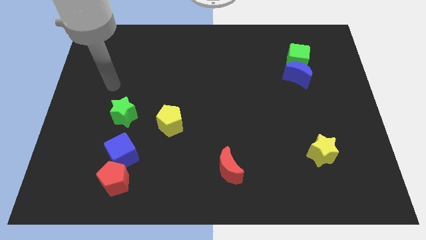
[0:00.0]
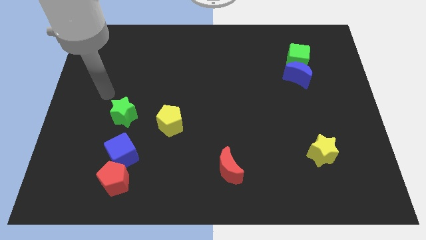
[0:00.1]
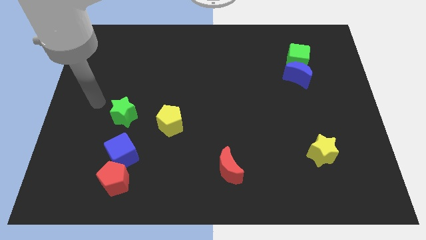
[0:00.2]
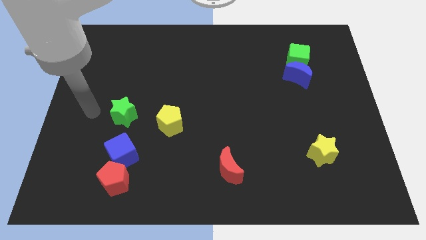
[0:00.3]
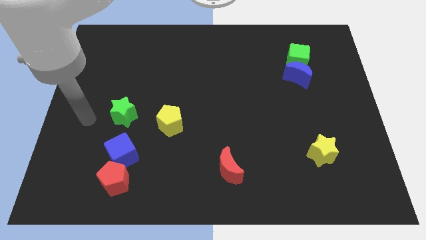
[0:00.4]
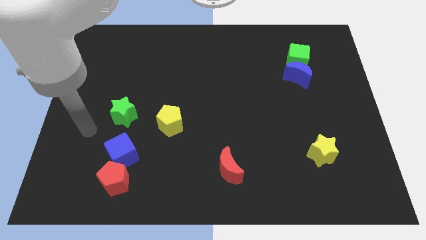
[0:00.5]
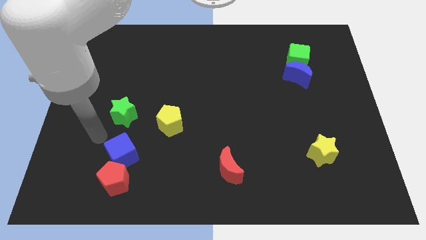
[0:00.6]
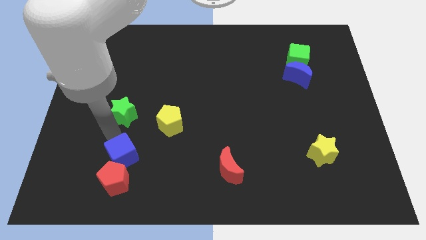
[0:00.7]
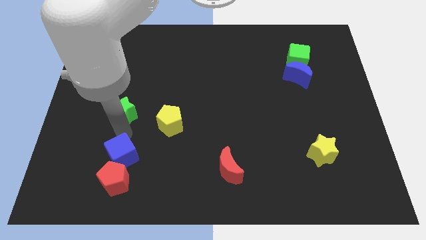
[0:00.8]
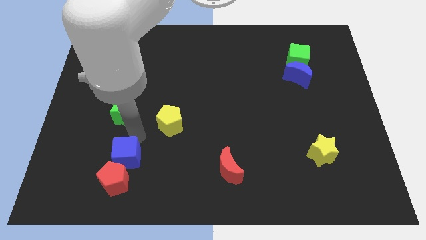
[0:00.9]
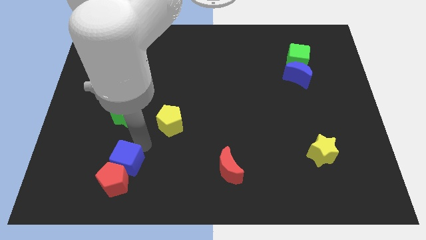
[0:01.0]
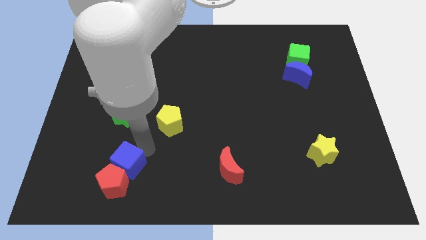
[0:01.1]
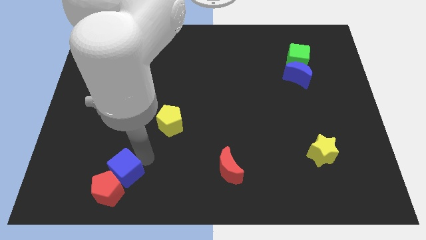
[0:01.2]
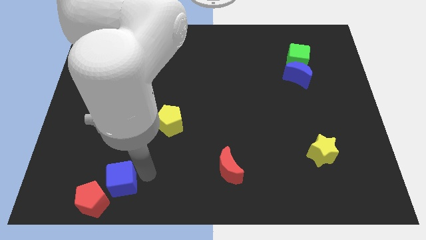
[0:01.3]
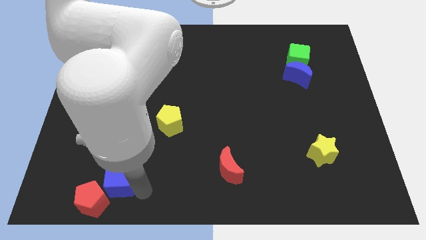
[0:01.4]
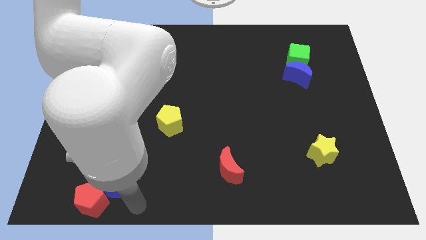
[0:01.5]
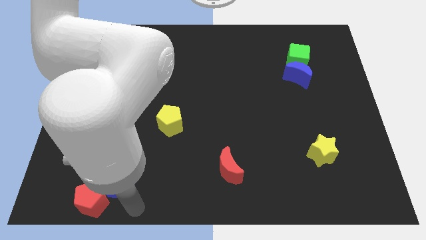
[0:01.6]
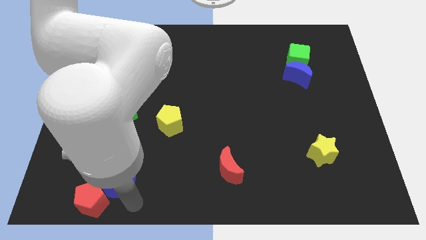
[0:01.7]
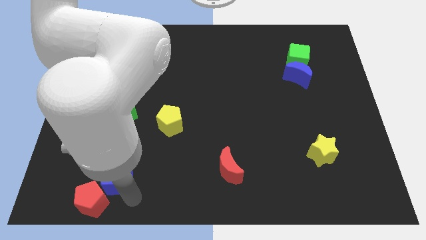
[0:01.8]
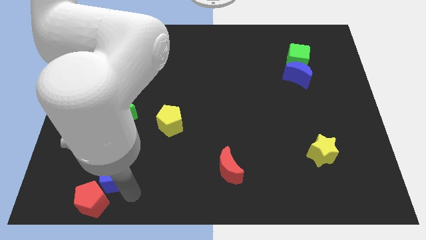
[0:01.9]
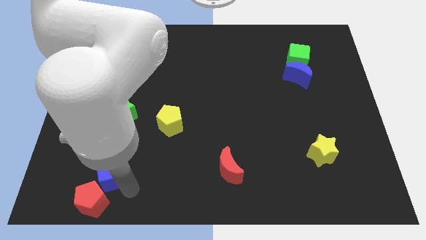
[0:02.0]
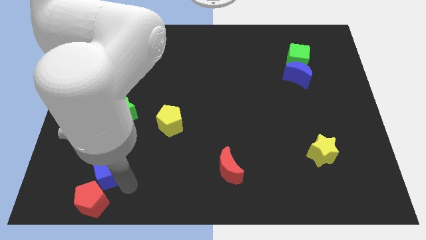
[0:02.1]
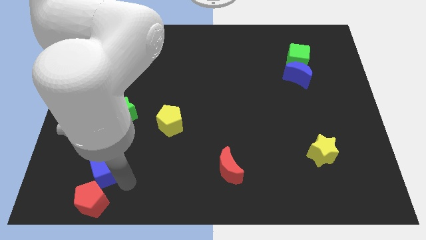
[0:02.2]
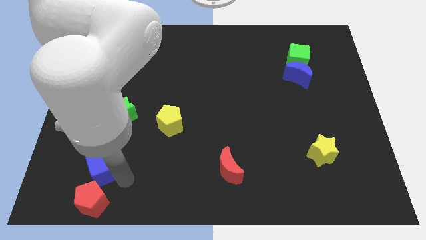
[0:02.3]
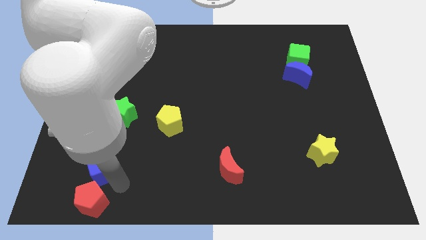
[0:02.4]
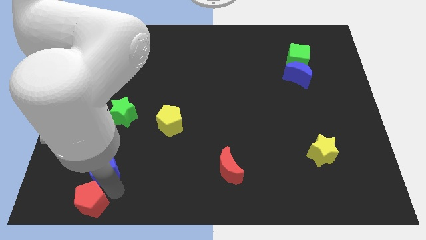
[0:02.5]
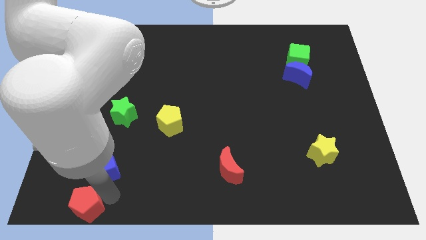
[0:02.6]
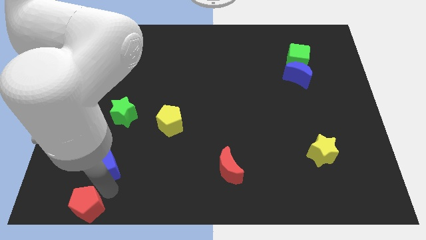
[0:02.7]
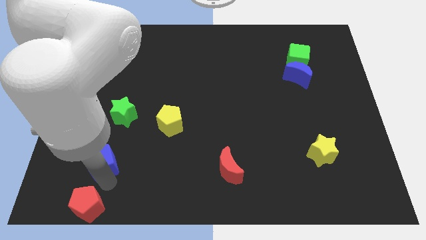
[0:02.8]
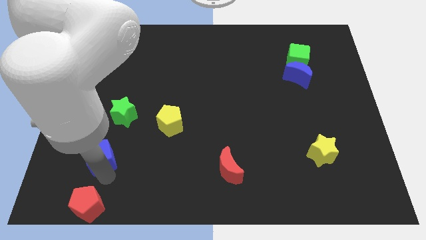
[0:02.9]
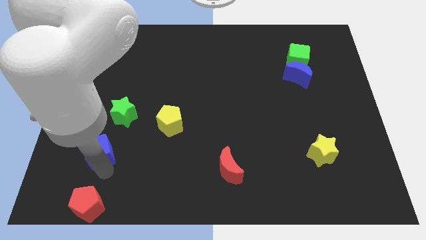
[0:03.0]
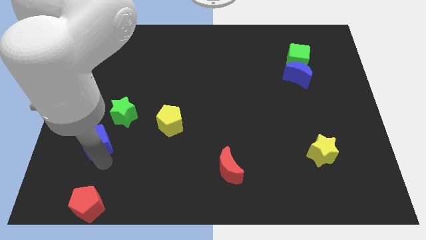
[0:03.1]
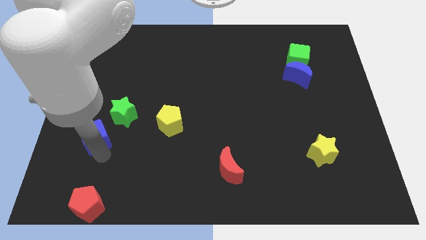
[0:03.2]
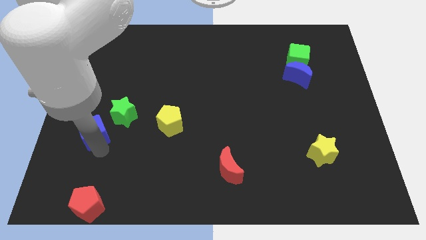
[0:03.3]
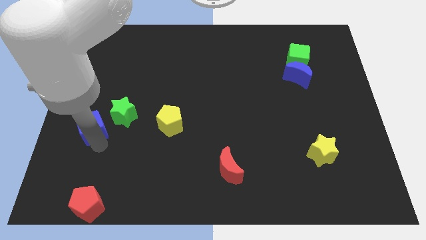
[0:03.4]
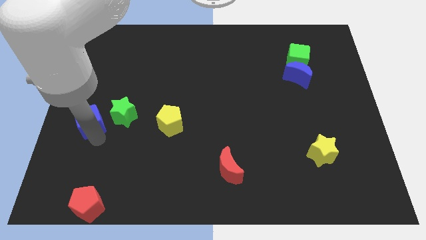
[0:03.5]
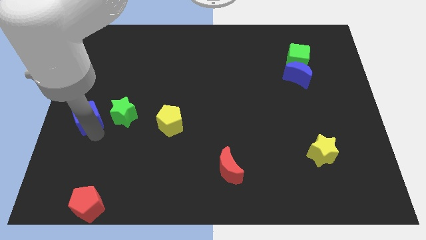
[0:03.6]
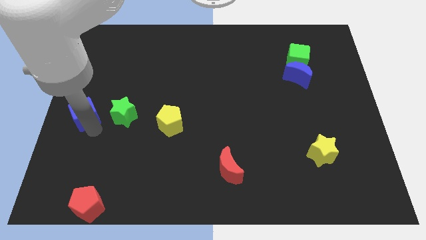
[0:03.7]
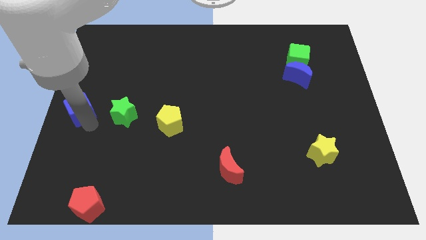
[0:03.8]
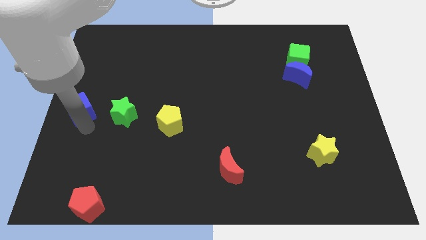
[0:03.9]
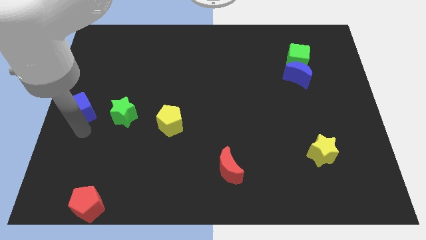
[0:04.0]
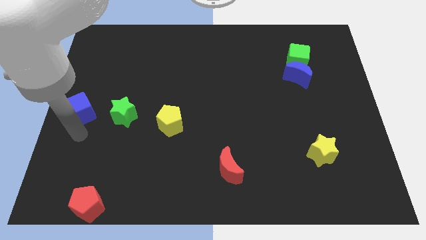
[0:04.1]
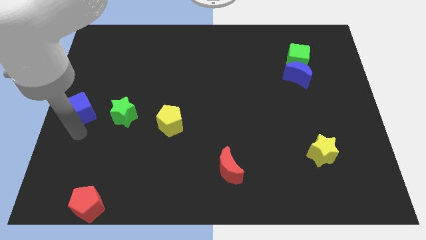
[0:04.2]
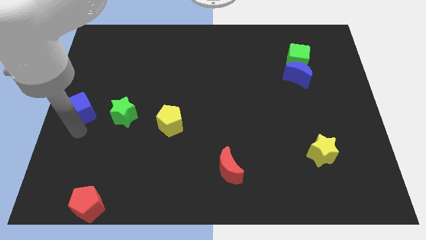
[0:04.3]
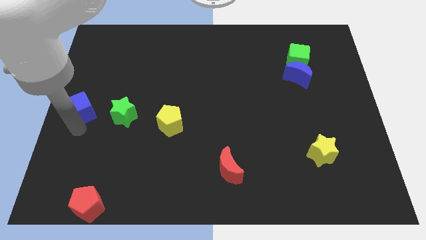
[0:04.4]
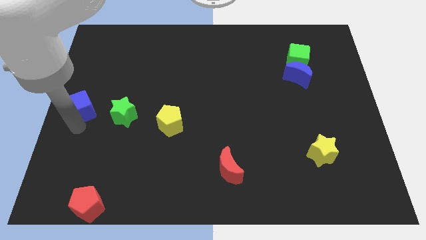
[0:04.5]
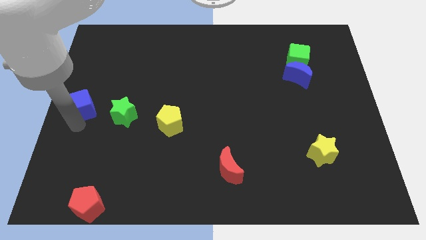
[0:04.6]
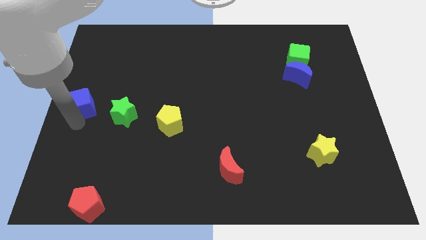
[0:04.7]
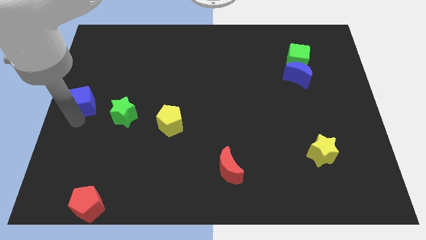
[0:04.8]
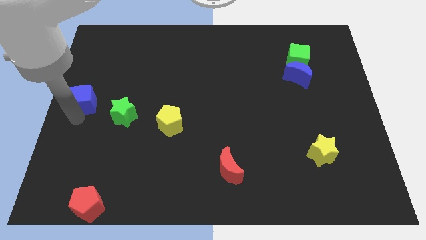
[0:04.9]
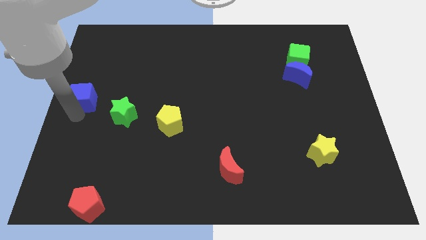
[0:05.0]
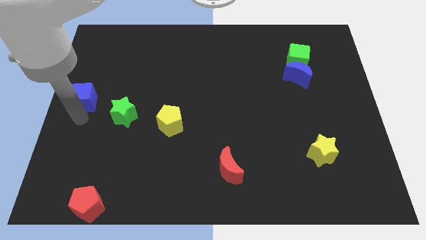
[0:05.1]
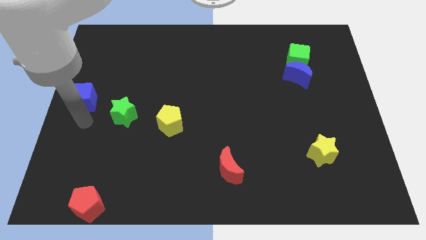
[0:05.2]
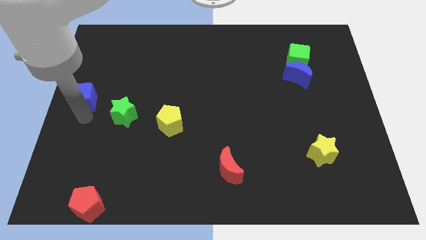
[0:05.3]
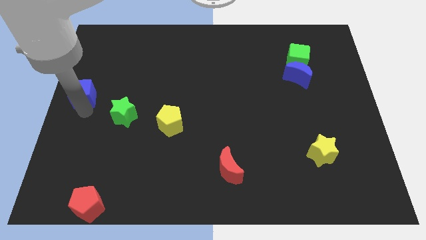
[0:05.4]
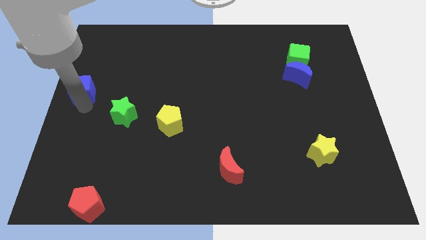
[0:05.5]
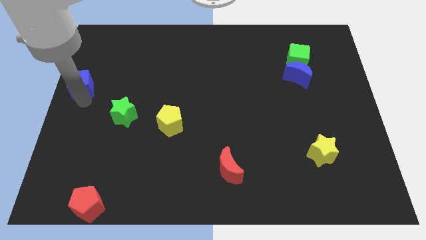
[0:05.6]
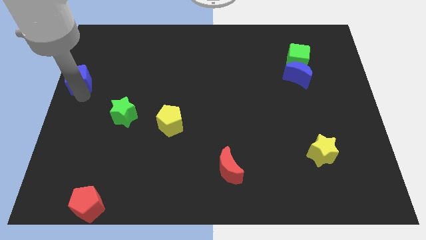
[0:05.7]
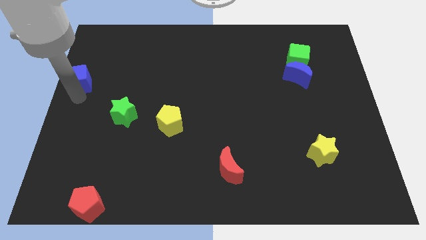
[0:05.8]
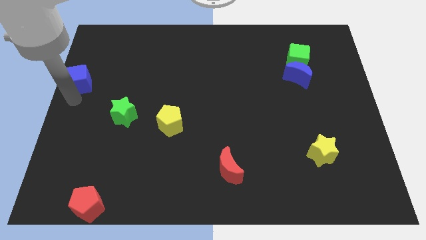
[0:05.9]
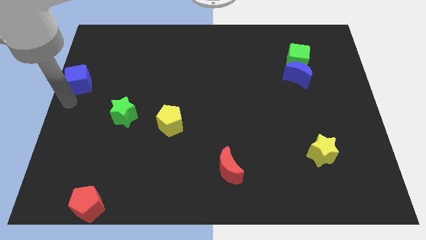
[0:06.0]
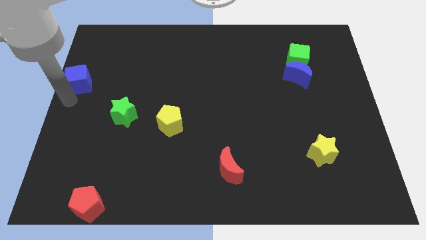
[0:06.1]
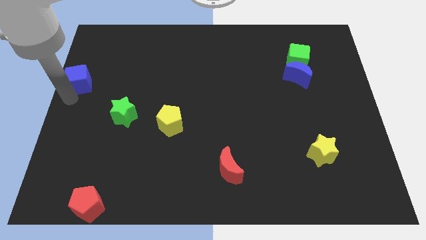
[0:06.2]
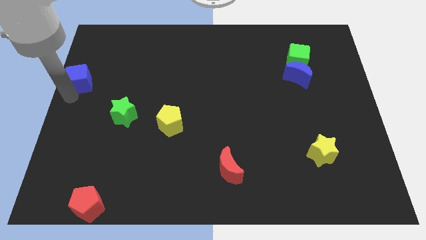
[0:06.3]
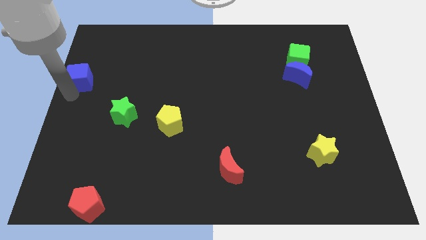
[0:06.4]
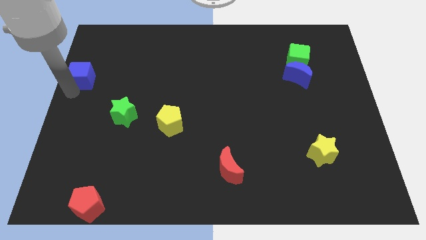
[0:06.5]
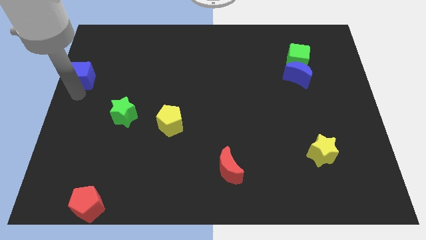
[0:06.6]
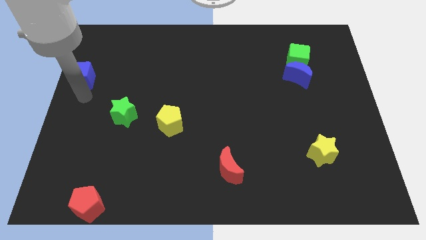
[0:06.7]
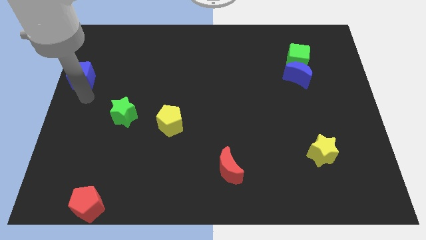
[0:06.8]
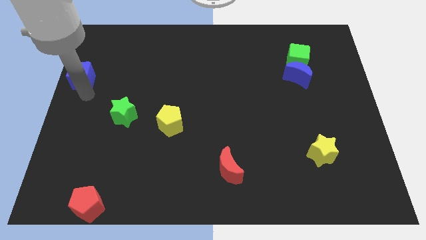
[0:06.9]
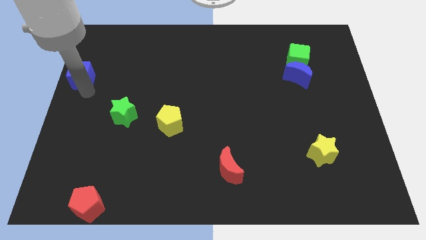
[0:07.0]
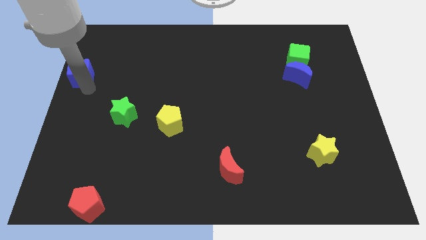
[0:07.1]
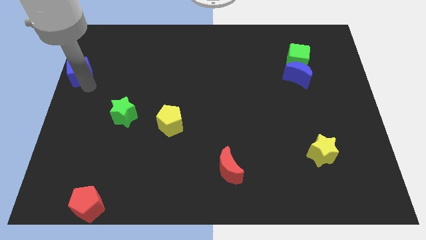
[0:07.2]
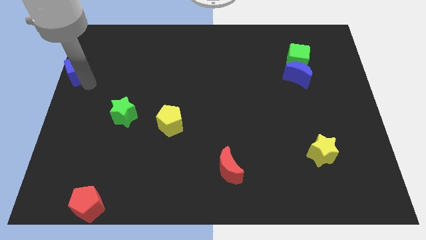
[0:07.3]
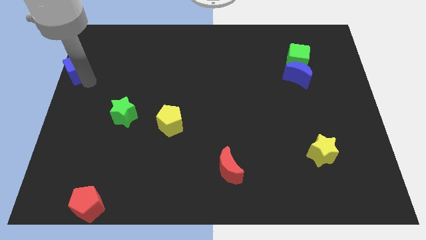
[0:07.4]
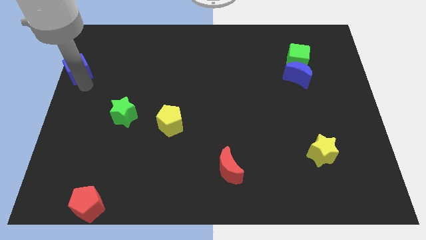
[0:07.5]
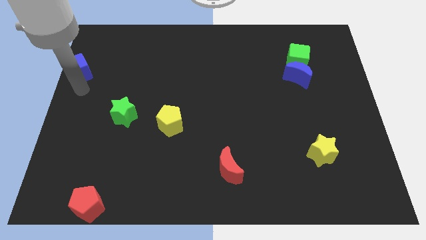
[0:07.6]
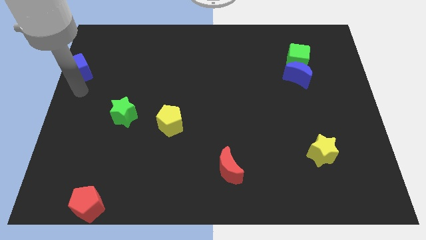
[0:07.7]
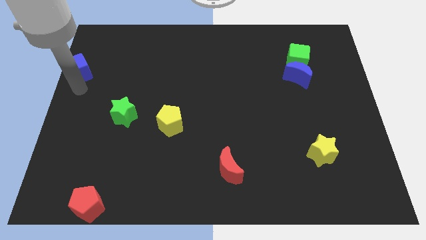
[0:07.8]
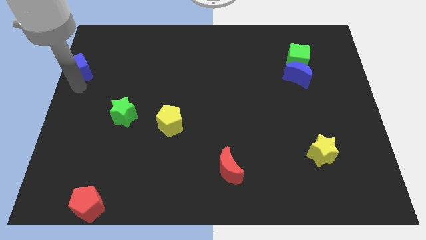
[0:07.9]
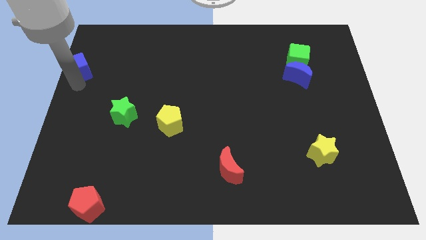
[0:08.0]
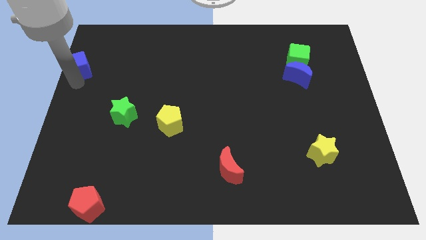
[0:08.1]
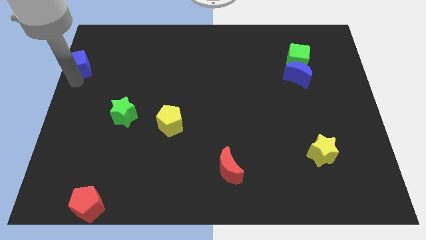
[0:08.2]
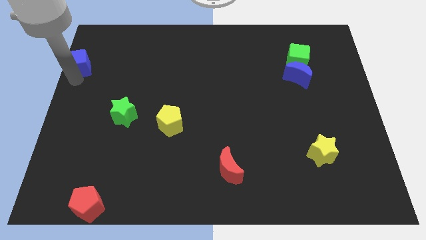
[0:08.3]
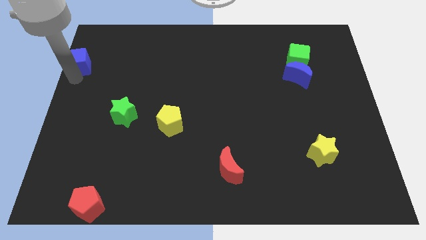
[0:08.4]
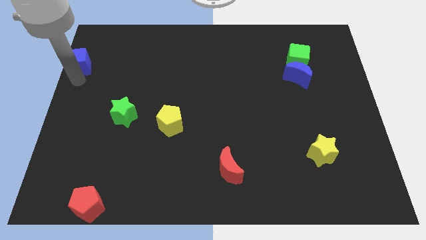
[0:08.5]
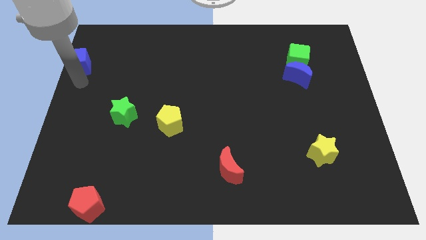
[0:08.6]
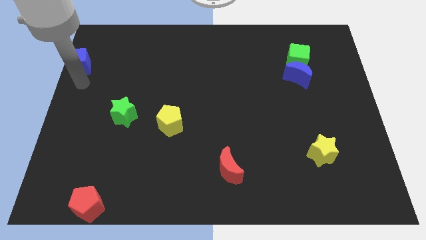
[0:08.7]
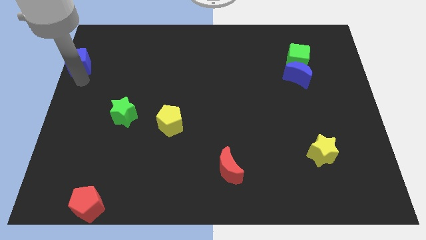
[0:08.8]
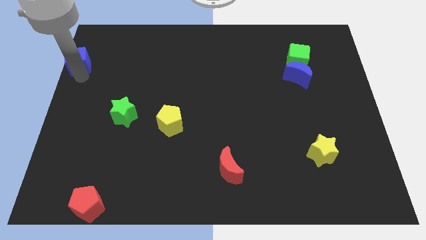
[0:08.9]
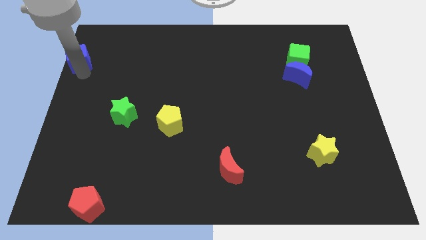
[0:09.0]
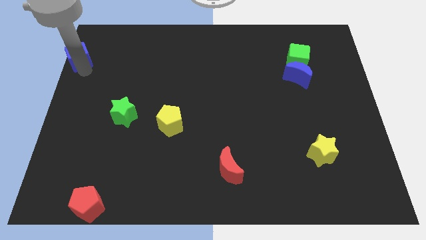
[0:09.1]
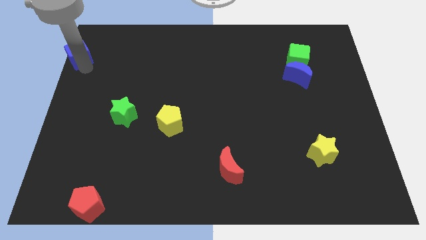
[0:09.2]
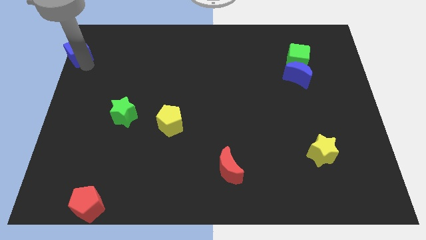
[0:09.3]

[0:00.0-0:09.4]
move the blue cube to the top left corner
